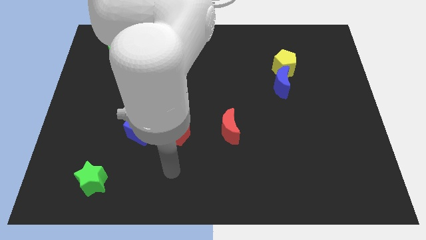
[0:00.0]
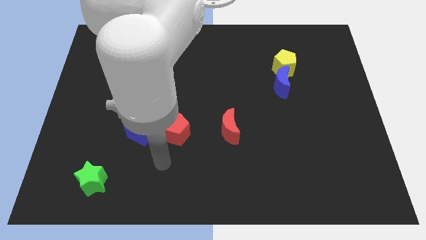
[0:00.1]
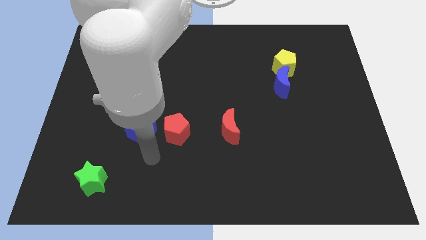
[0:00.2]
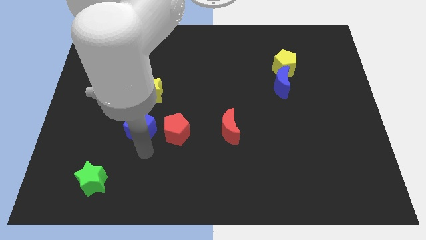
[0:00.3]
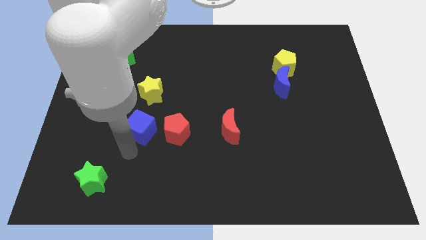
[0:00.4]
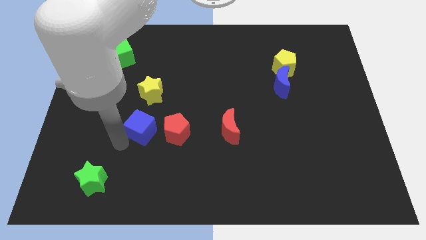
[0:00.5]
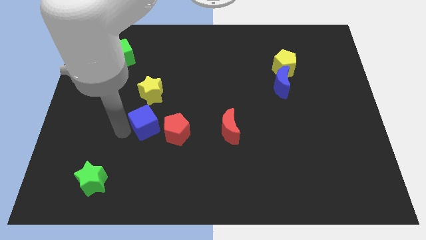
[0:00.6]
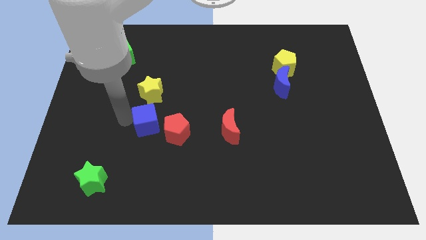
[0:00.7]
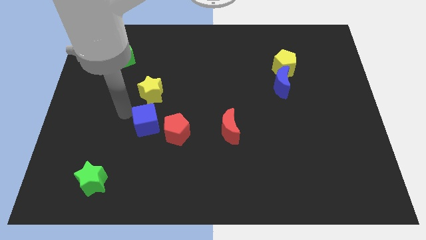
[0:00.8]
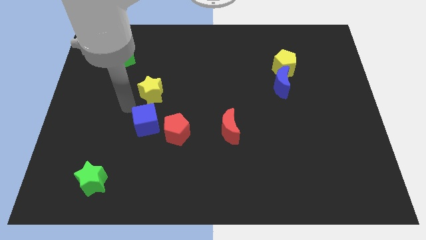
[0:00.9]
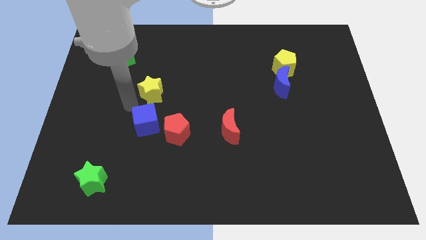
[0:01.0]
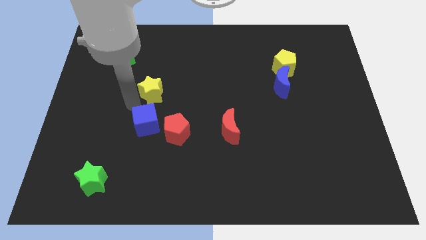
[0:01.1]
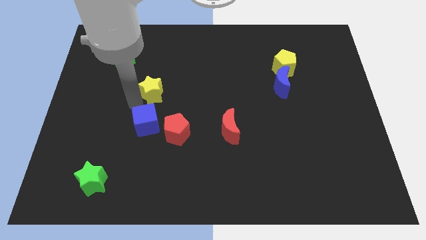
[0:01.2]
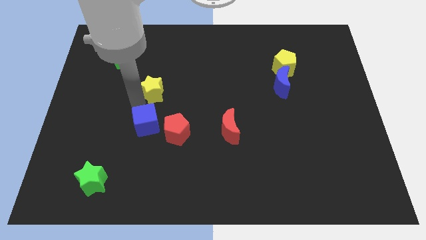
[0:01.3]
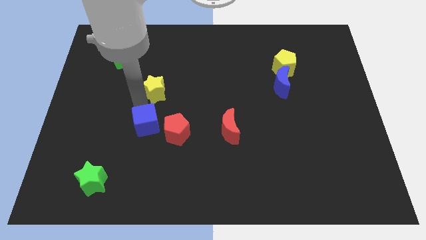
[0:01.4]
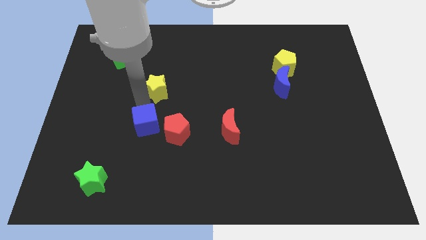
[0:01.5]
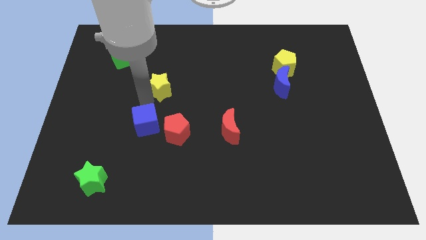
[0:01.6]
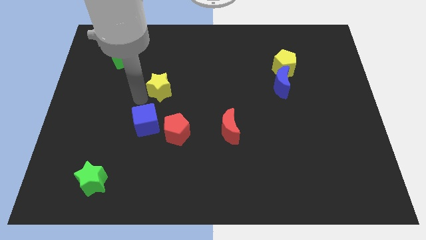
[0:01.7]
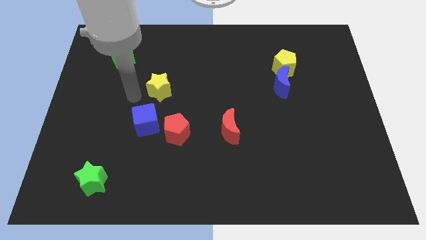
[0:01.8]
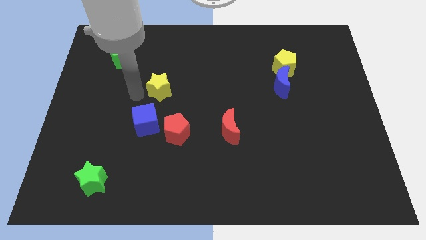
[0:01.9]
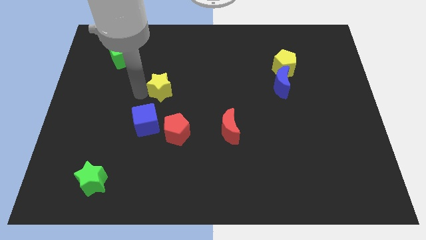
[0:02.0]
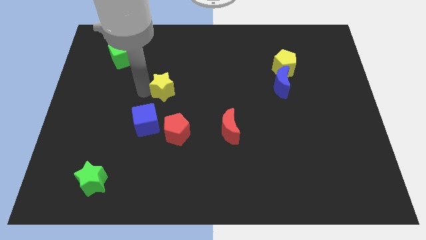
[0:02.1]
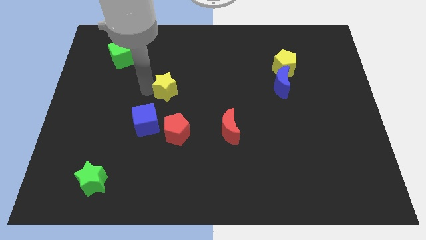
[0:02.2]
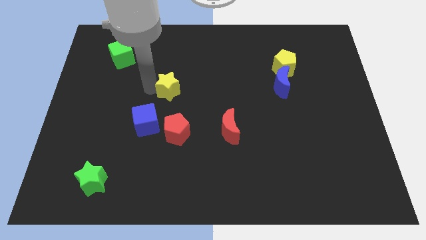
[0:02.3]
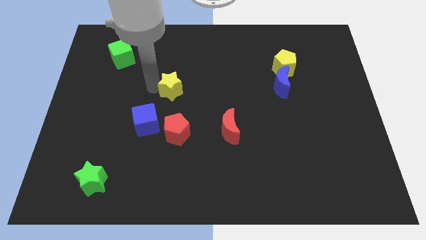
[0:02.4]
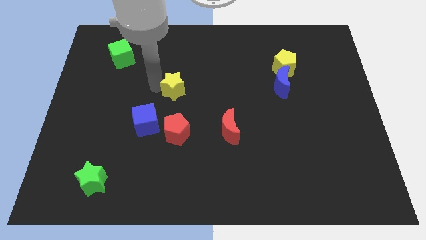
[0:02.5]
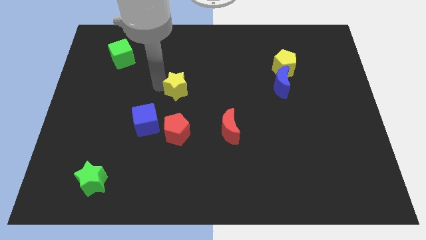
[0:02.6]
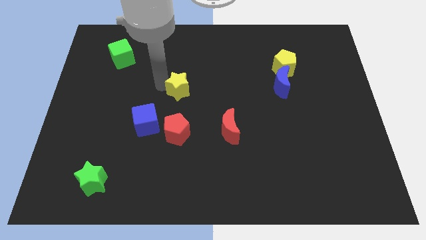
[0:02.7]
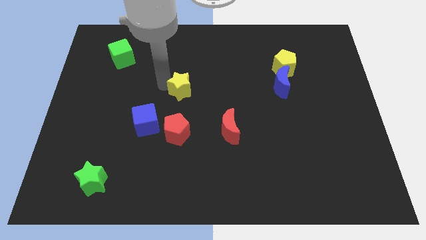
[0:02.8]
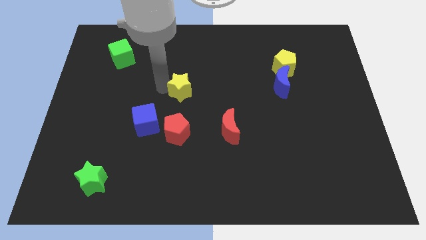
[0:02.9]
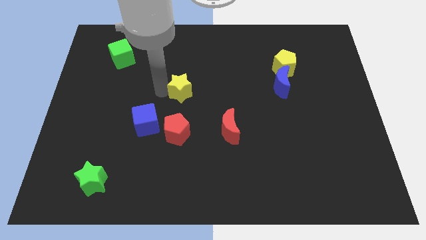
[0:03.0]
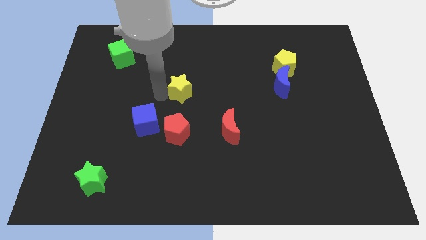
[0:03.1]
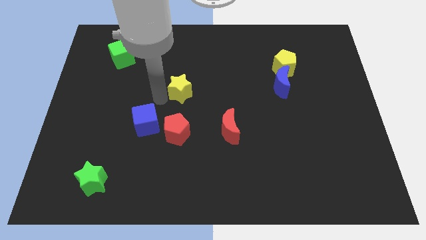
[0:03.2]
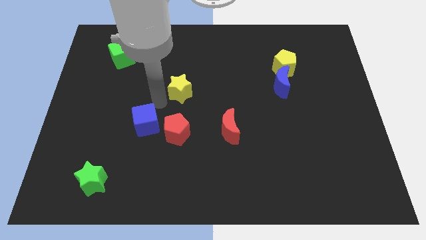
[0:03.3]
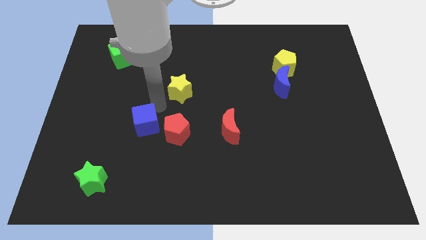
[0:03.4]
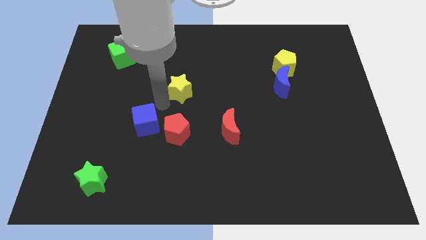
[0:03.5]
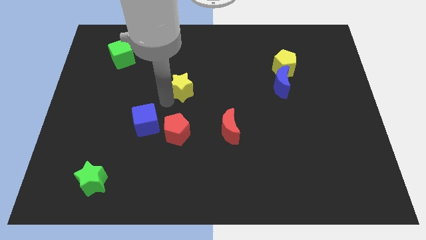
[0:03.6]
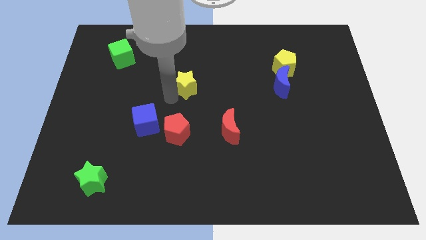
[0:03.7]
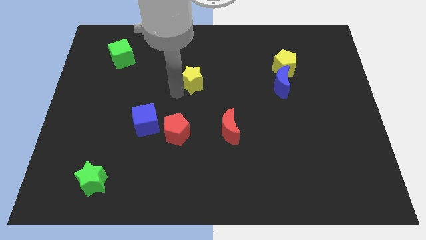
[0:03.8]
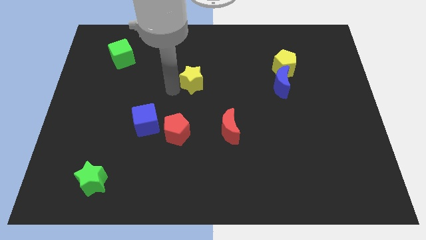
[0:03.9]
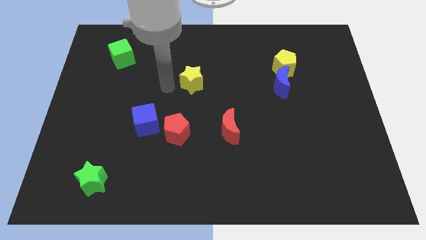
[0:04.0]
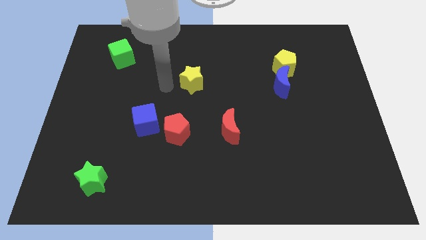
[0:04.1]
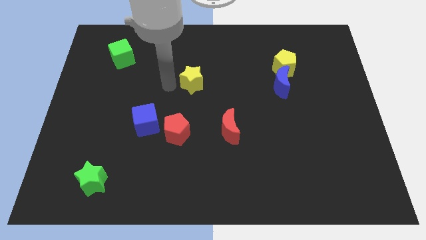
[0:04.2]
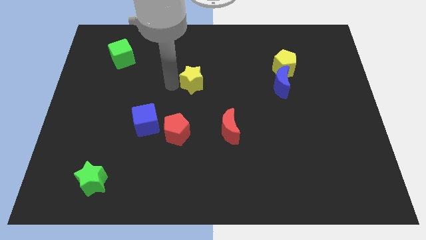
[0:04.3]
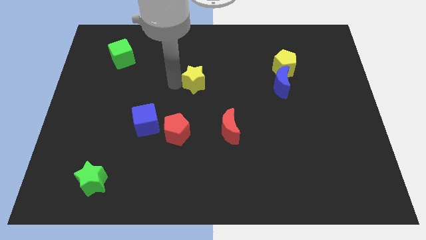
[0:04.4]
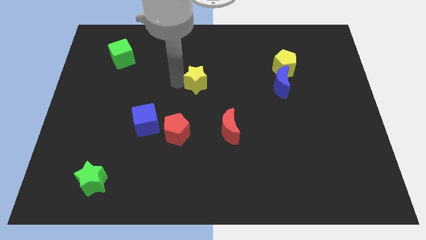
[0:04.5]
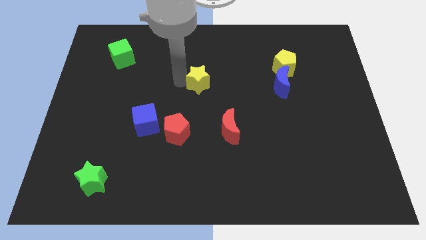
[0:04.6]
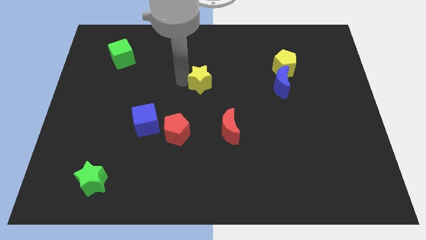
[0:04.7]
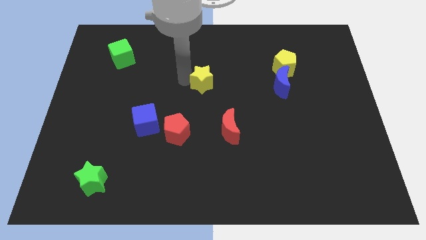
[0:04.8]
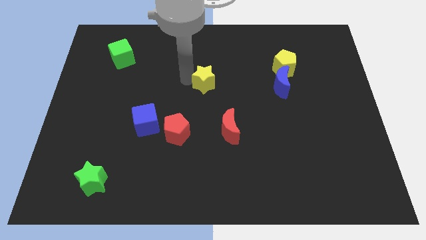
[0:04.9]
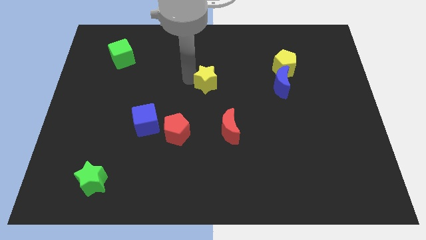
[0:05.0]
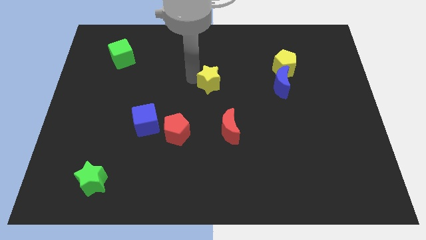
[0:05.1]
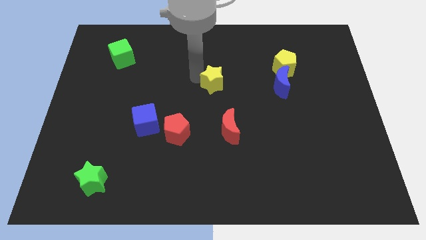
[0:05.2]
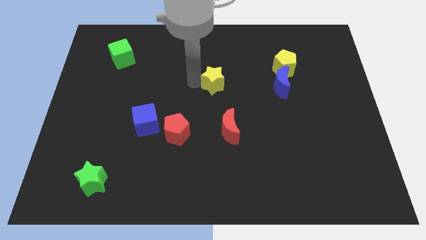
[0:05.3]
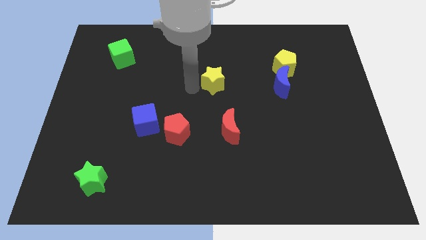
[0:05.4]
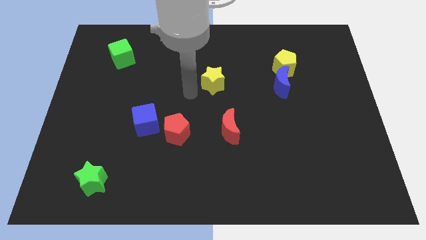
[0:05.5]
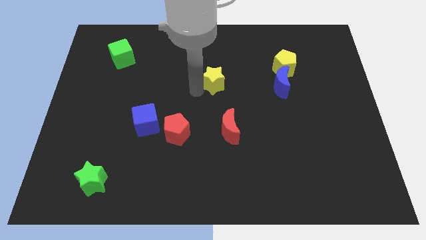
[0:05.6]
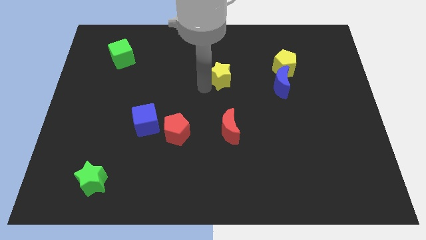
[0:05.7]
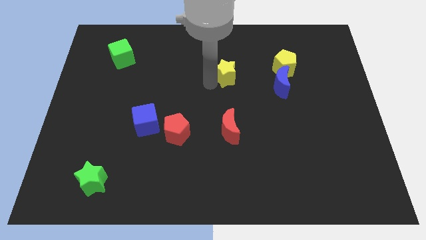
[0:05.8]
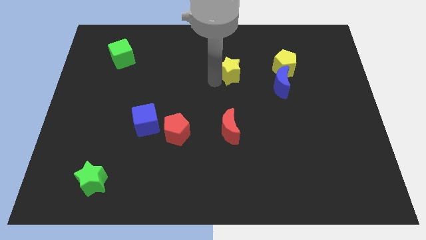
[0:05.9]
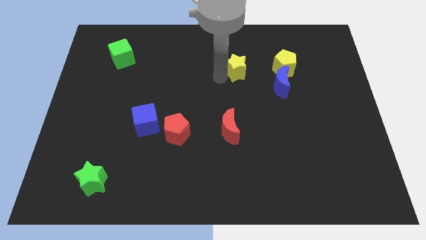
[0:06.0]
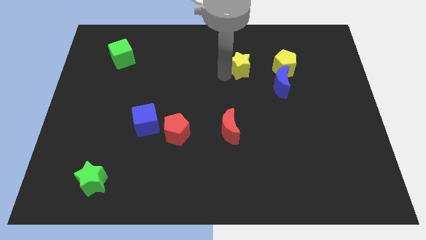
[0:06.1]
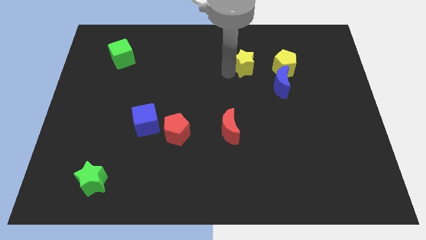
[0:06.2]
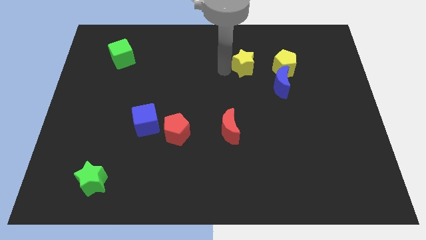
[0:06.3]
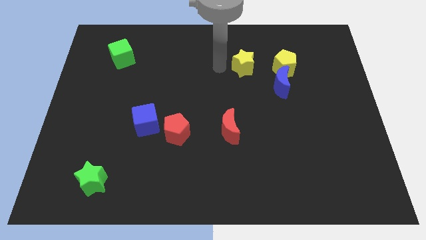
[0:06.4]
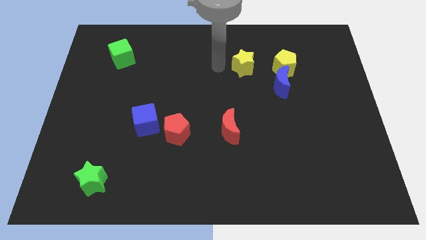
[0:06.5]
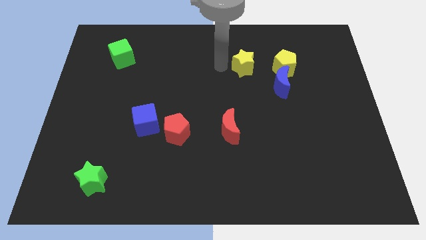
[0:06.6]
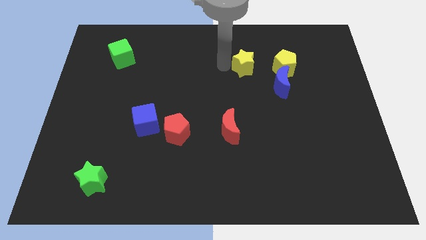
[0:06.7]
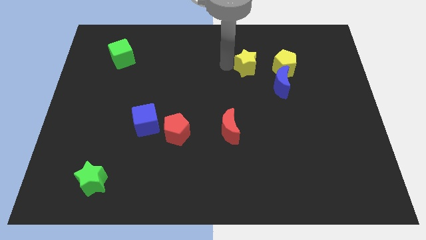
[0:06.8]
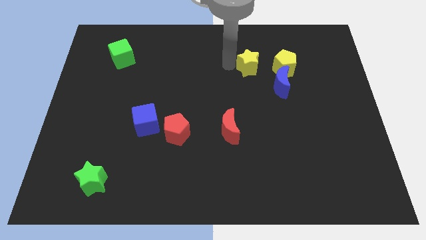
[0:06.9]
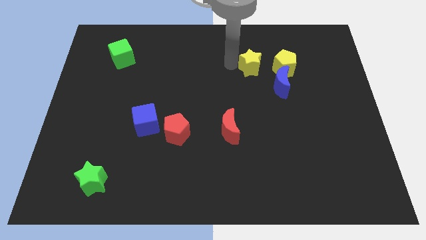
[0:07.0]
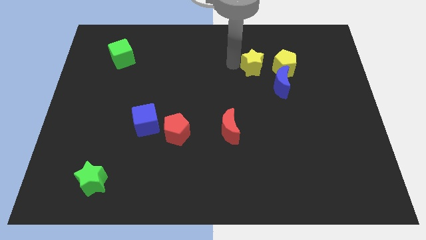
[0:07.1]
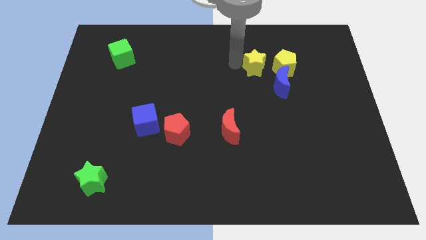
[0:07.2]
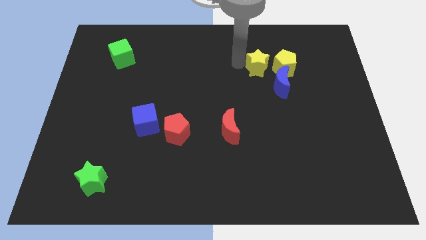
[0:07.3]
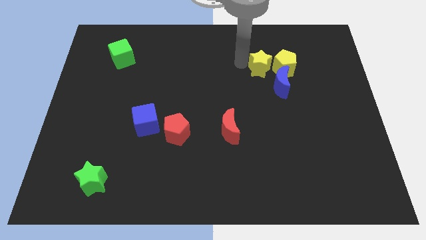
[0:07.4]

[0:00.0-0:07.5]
put the yellow star next to the yellow pentagon

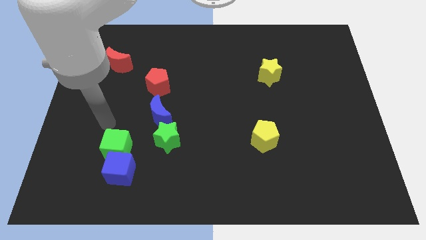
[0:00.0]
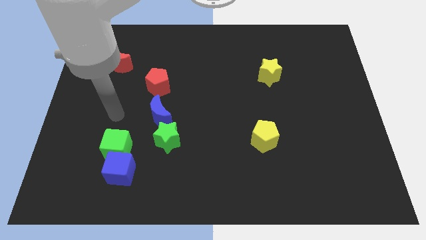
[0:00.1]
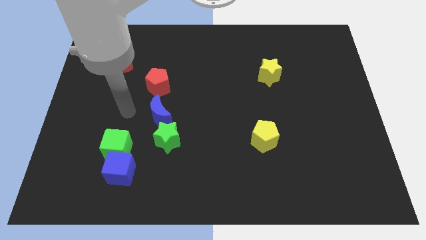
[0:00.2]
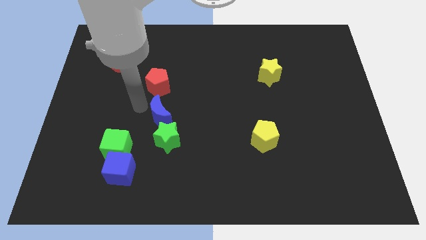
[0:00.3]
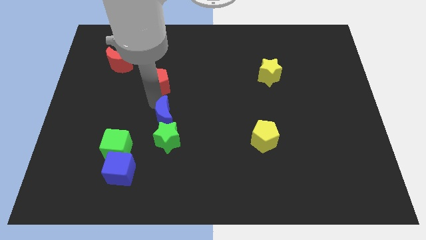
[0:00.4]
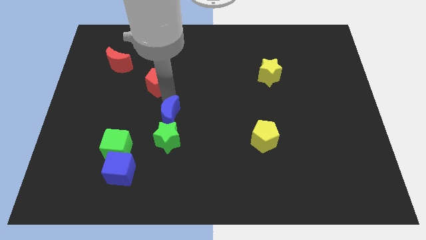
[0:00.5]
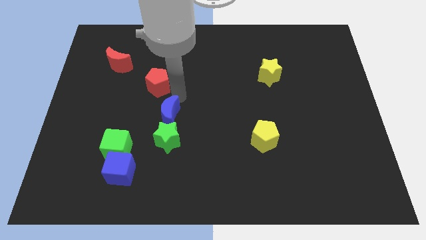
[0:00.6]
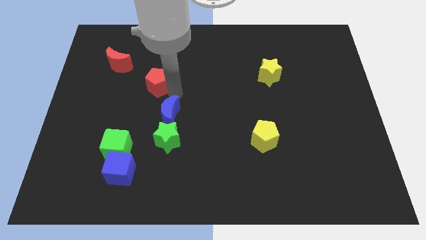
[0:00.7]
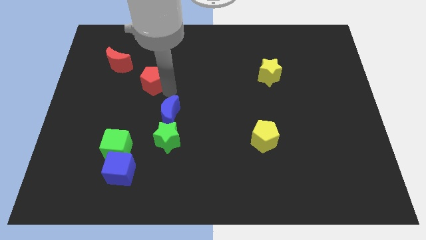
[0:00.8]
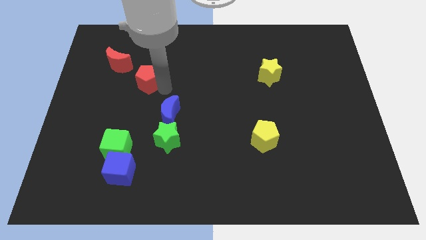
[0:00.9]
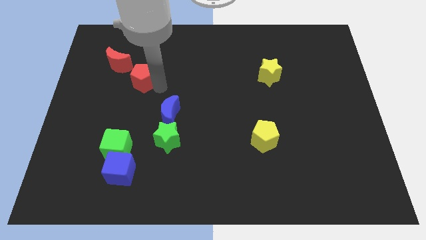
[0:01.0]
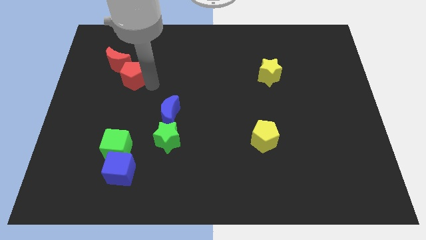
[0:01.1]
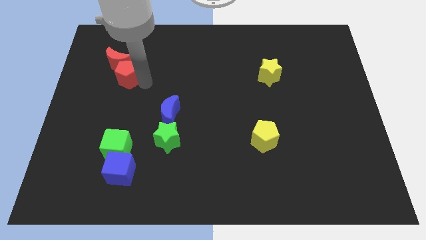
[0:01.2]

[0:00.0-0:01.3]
slide the red pentagon towards the red moon
